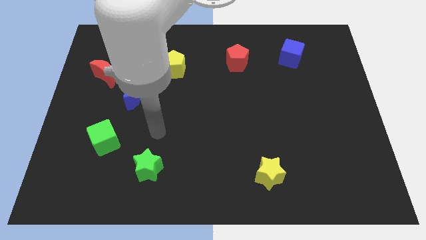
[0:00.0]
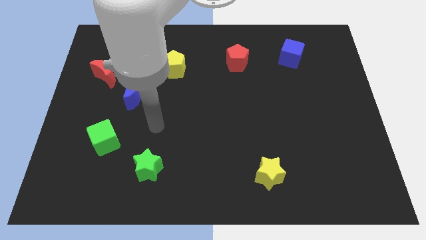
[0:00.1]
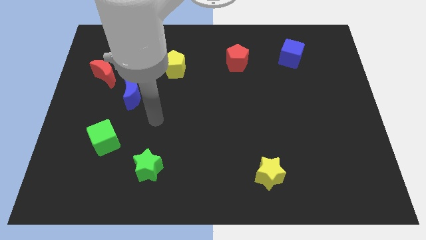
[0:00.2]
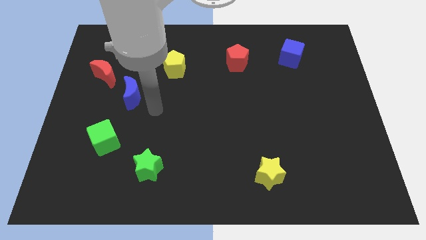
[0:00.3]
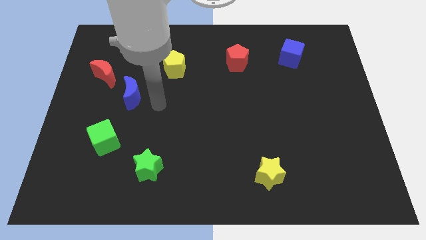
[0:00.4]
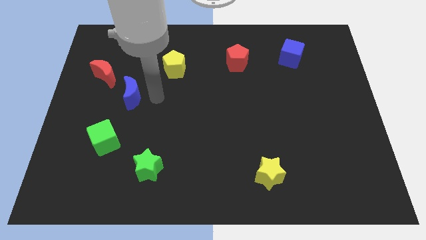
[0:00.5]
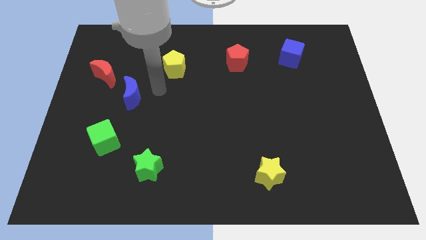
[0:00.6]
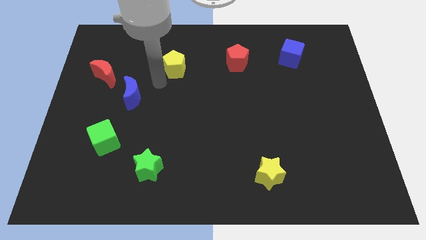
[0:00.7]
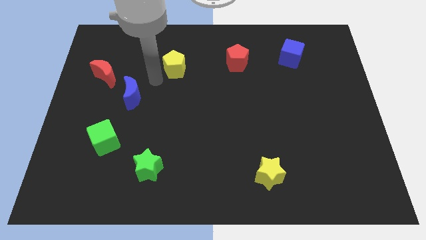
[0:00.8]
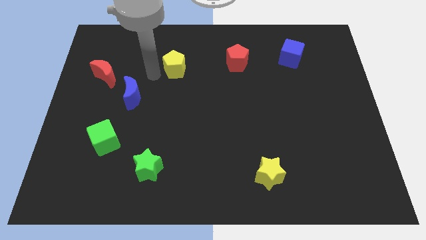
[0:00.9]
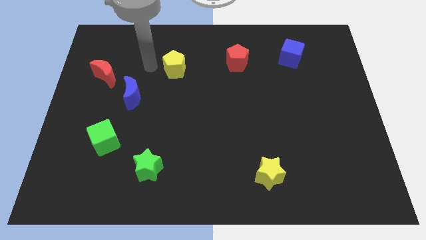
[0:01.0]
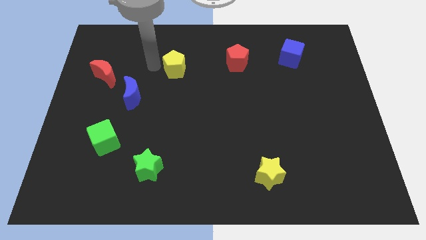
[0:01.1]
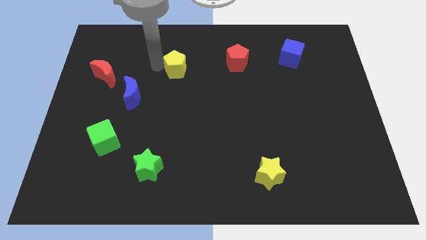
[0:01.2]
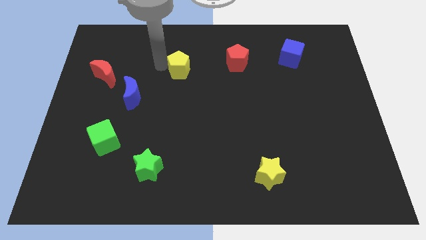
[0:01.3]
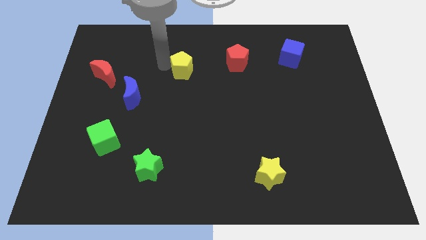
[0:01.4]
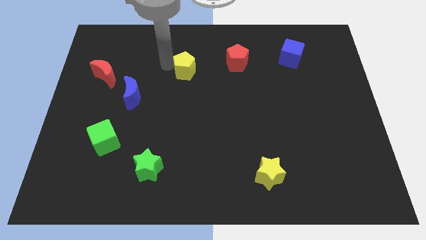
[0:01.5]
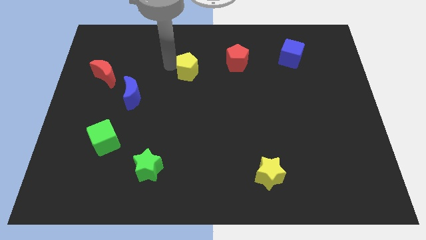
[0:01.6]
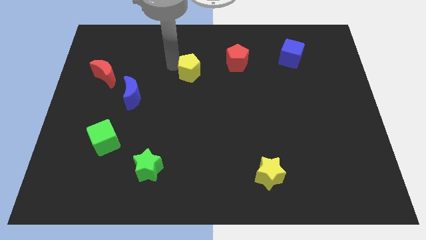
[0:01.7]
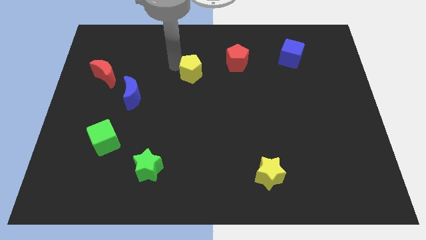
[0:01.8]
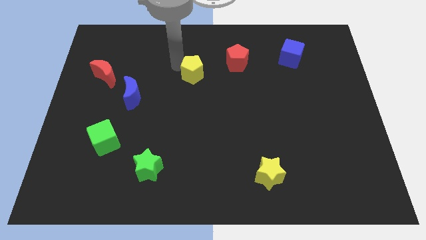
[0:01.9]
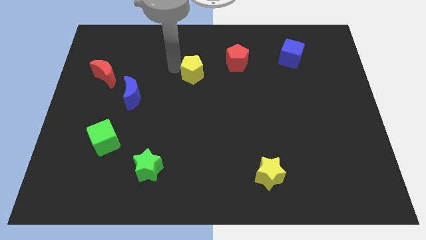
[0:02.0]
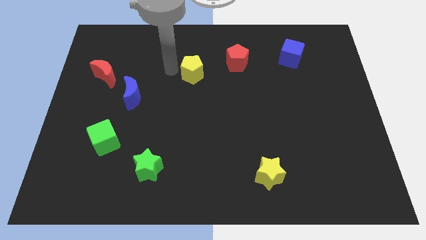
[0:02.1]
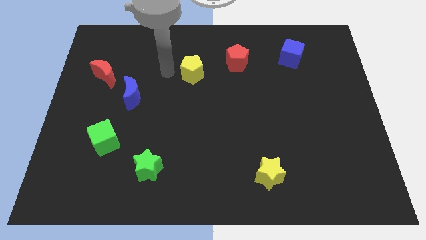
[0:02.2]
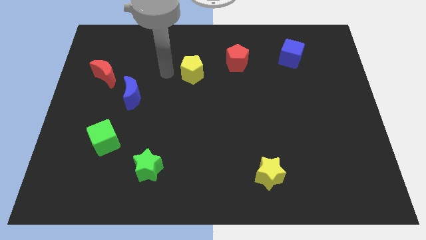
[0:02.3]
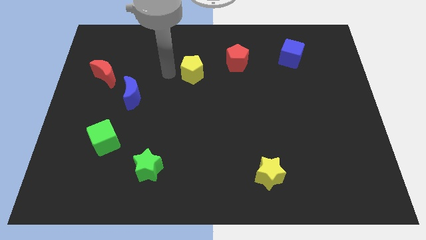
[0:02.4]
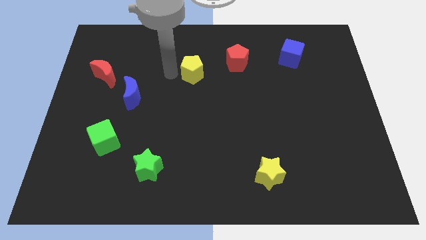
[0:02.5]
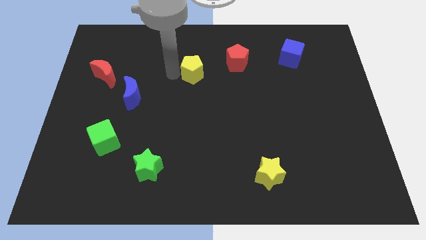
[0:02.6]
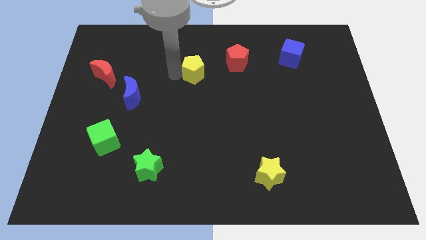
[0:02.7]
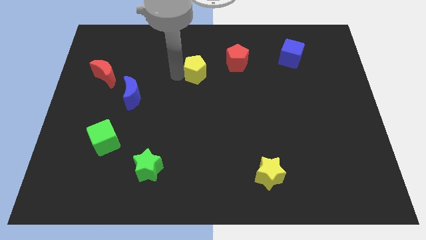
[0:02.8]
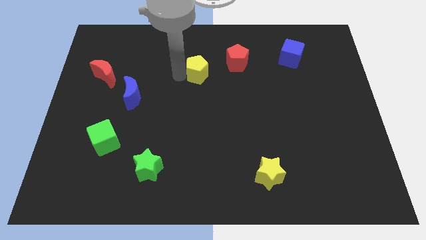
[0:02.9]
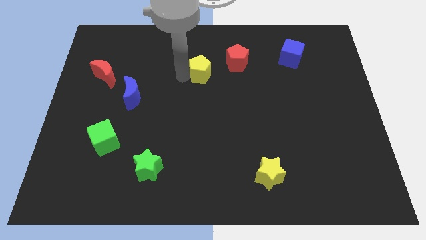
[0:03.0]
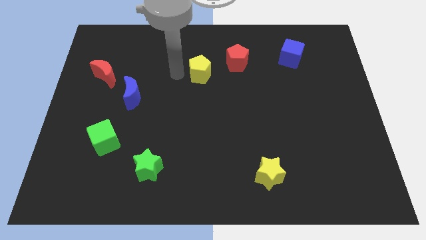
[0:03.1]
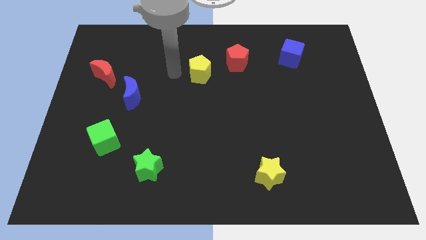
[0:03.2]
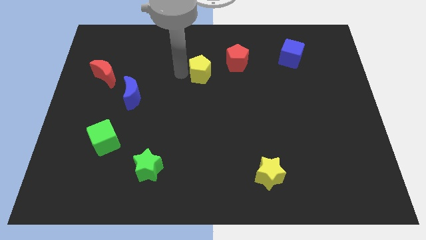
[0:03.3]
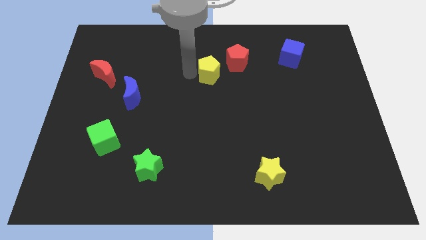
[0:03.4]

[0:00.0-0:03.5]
slide the yellow pentagon to the right a bit

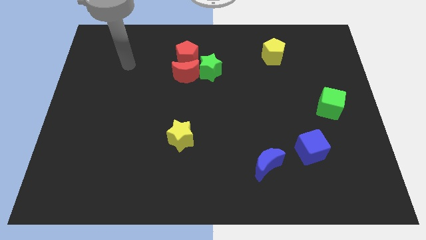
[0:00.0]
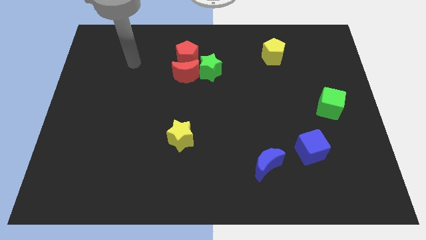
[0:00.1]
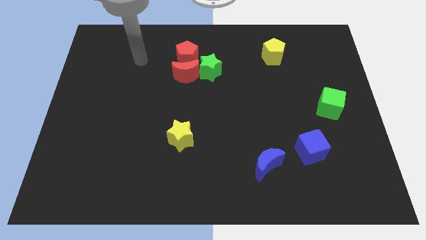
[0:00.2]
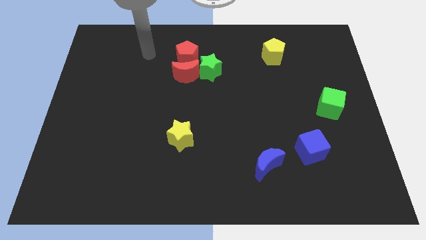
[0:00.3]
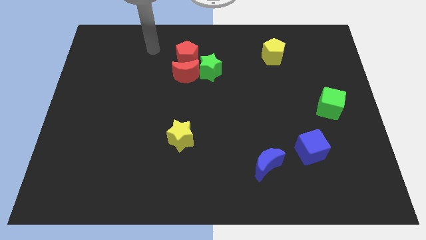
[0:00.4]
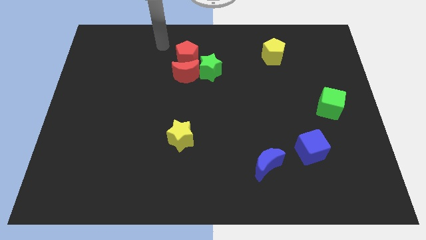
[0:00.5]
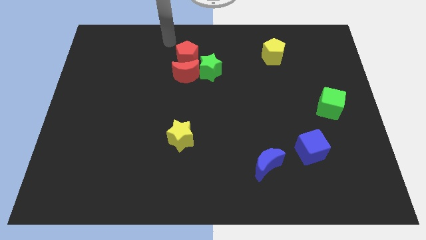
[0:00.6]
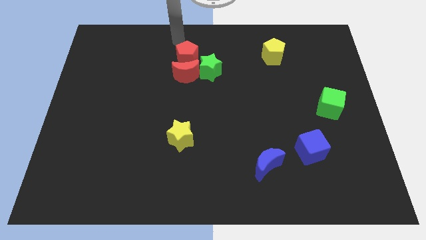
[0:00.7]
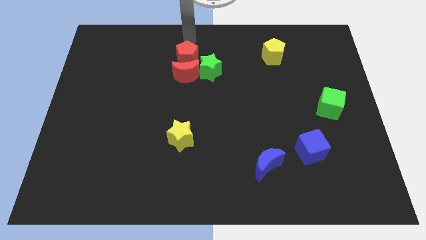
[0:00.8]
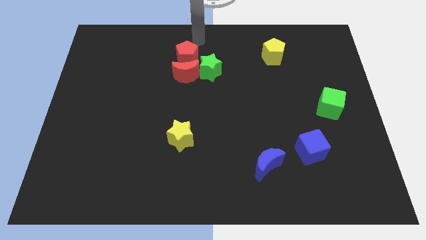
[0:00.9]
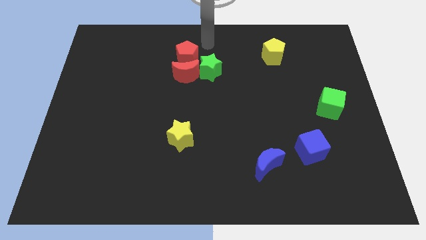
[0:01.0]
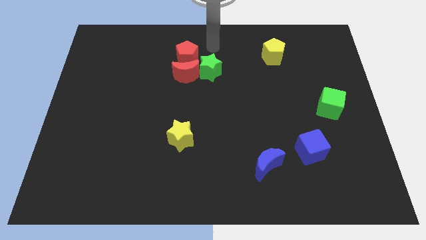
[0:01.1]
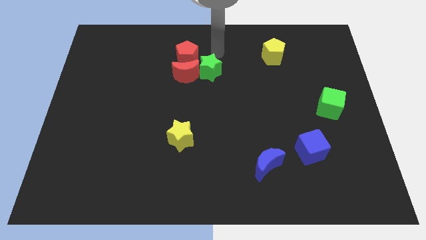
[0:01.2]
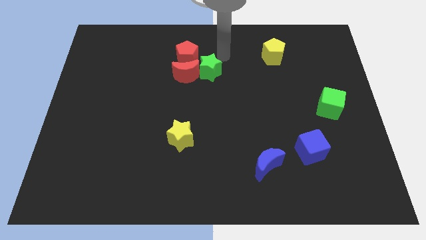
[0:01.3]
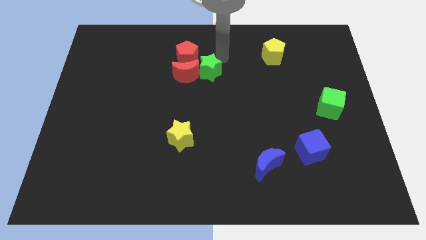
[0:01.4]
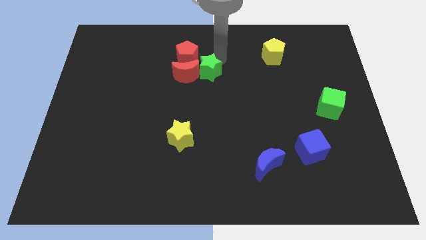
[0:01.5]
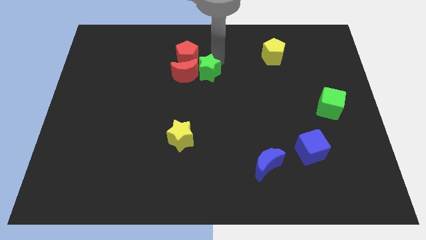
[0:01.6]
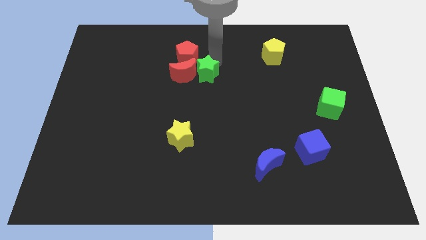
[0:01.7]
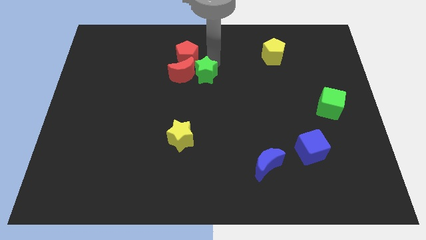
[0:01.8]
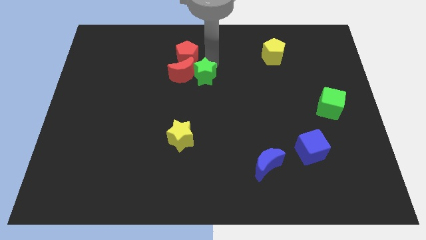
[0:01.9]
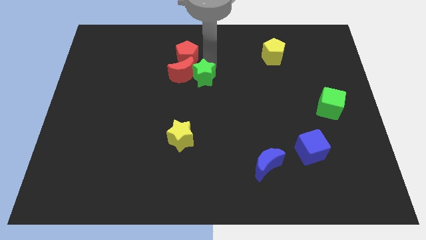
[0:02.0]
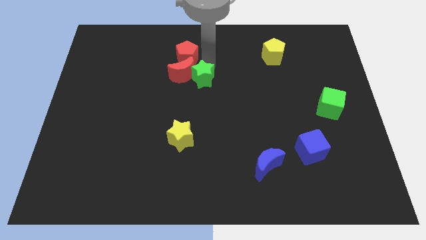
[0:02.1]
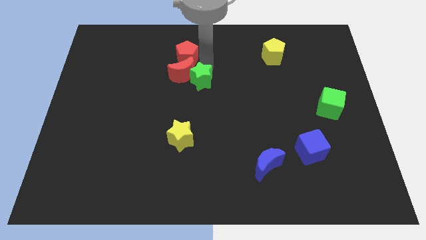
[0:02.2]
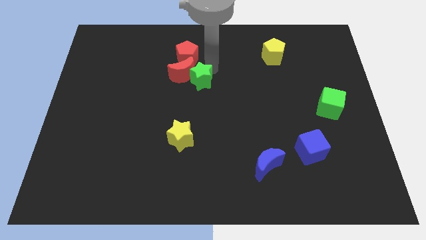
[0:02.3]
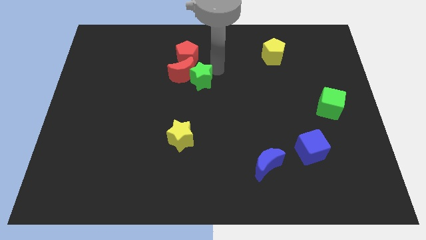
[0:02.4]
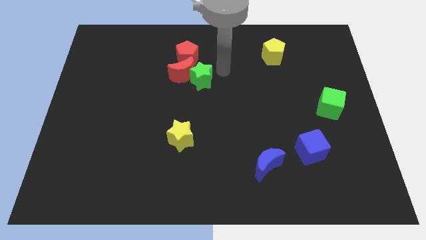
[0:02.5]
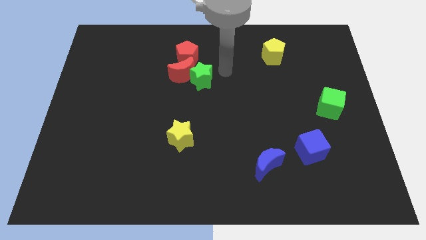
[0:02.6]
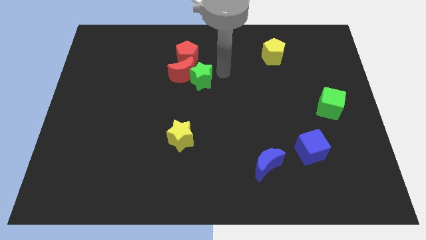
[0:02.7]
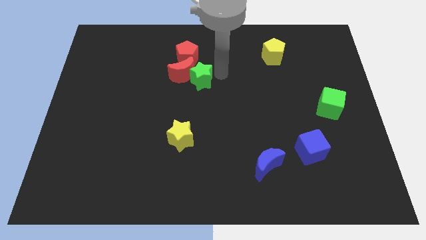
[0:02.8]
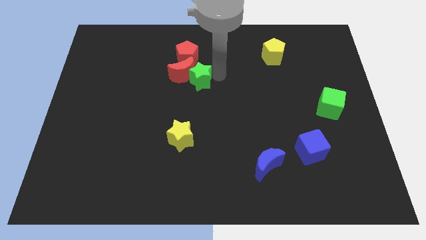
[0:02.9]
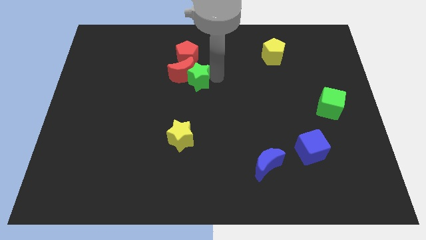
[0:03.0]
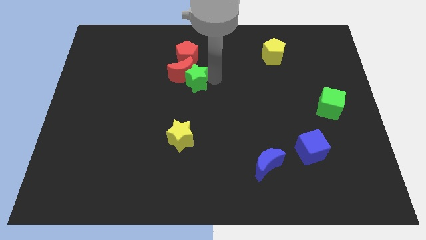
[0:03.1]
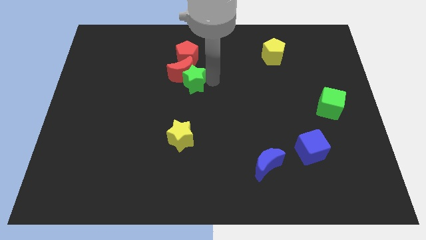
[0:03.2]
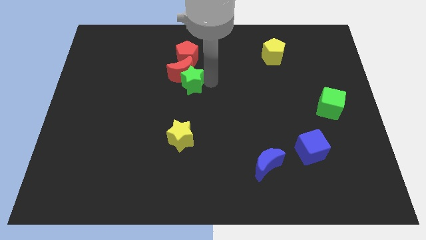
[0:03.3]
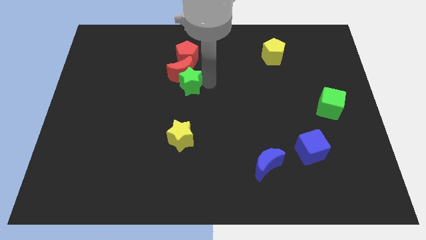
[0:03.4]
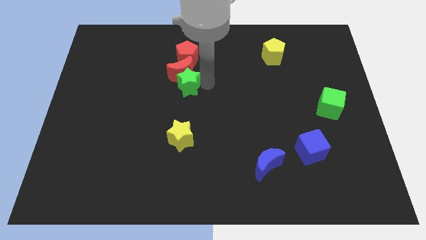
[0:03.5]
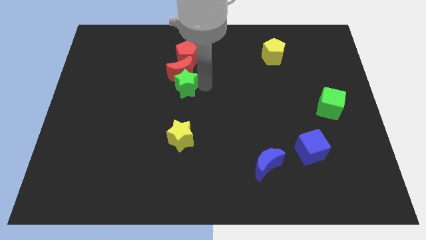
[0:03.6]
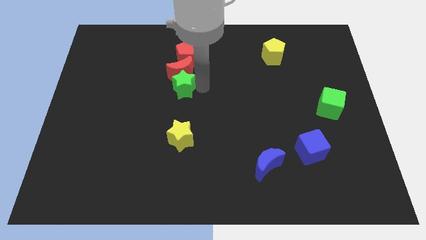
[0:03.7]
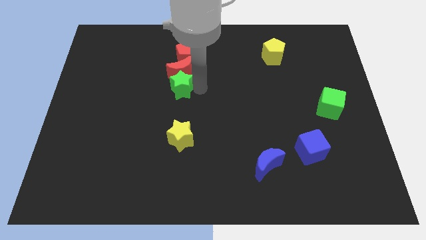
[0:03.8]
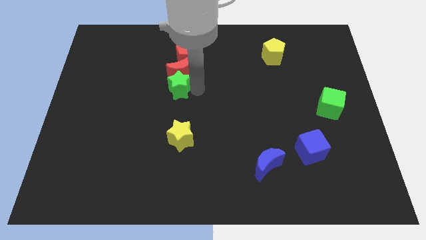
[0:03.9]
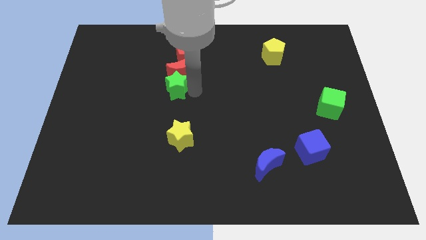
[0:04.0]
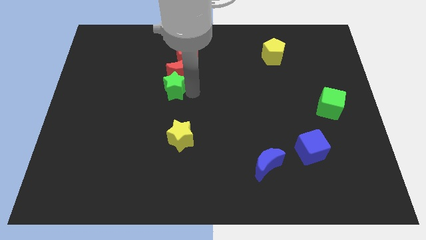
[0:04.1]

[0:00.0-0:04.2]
slightly move the green star to the left

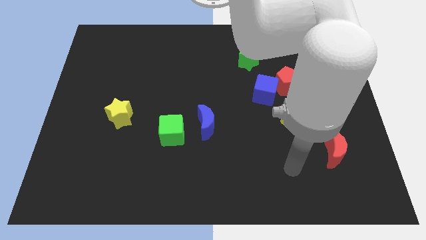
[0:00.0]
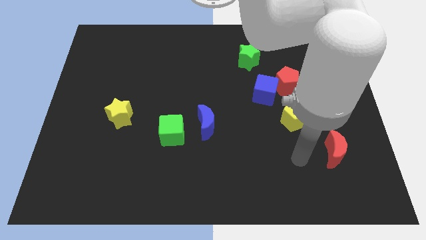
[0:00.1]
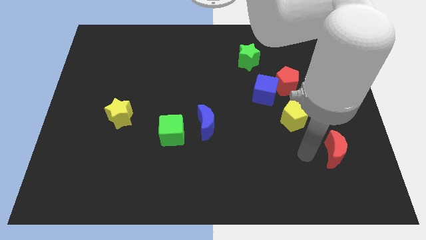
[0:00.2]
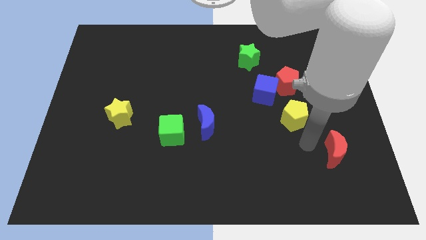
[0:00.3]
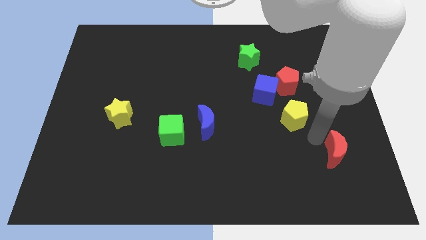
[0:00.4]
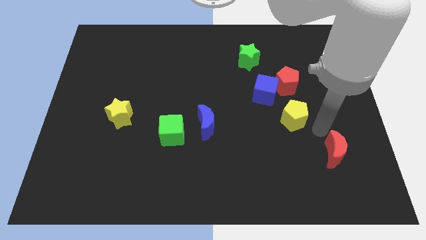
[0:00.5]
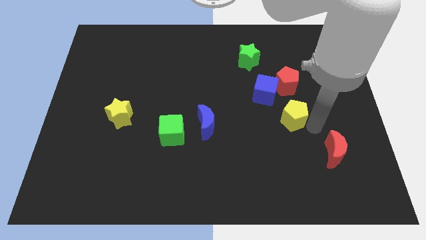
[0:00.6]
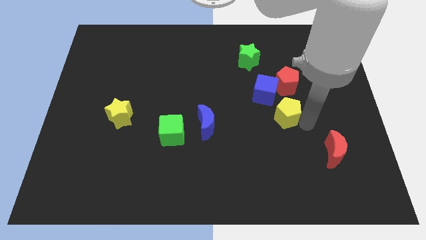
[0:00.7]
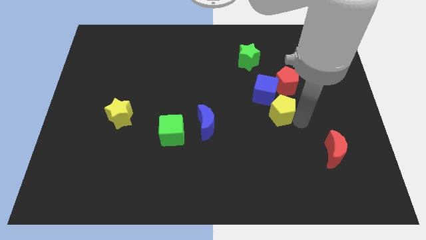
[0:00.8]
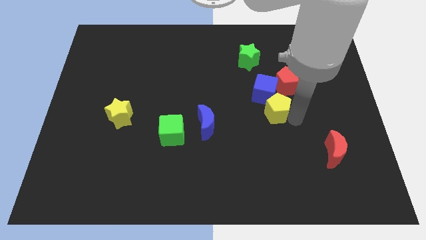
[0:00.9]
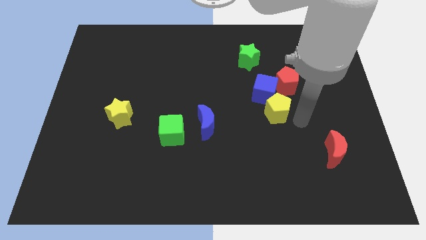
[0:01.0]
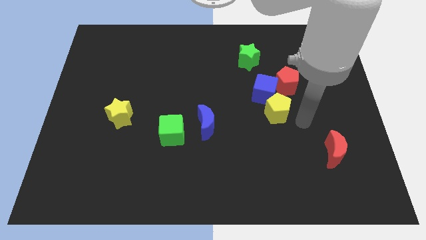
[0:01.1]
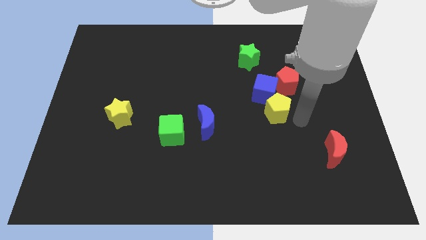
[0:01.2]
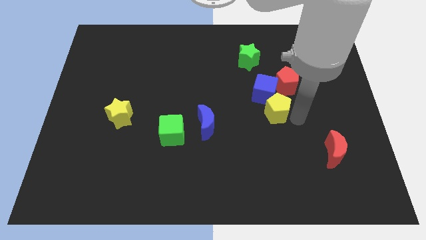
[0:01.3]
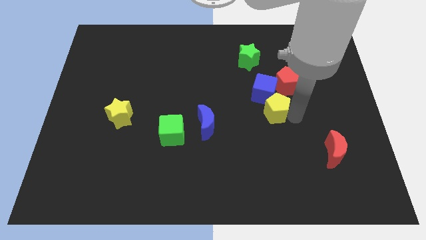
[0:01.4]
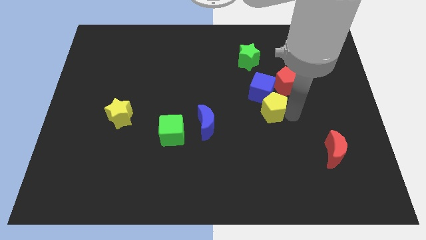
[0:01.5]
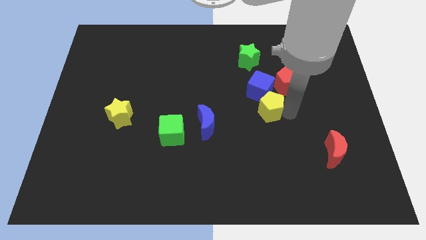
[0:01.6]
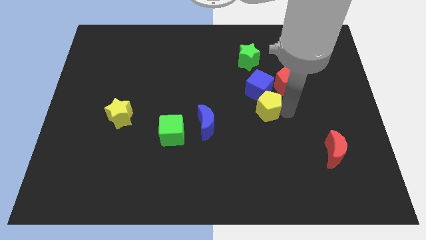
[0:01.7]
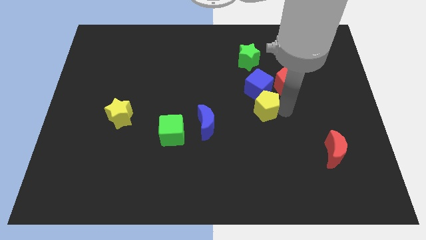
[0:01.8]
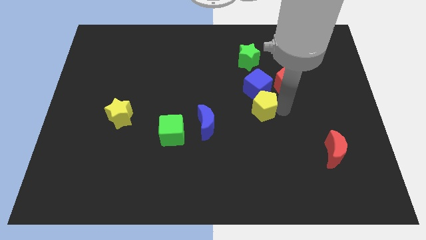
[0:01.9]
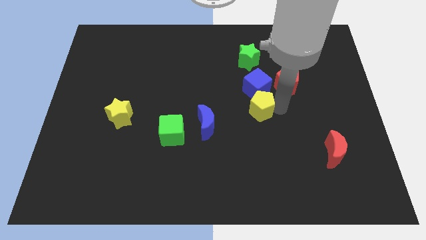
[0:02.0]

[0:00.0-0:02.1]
push the yellow pentagon diagonally up and left somewhat
